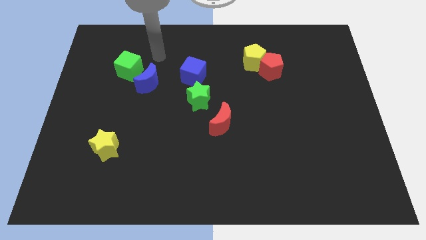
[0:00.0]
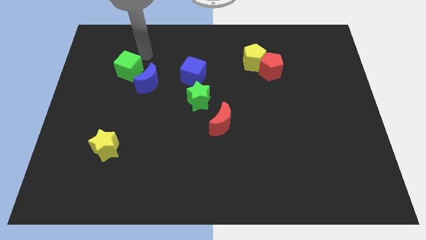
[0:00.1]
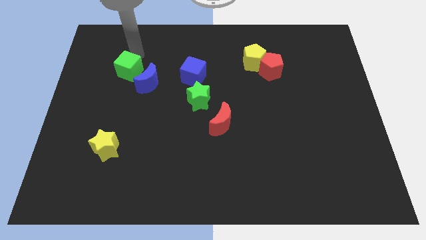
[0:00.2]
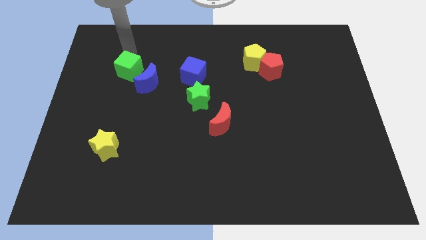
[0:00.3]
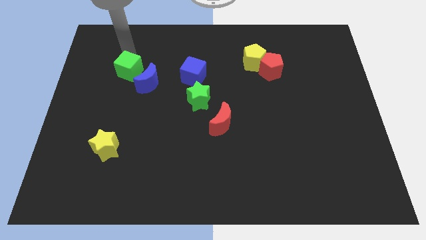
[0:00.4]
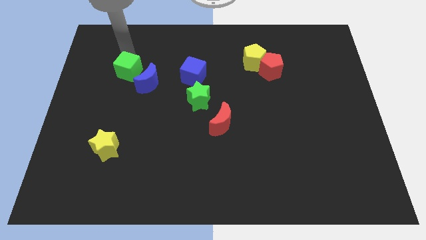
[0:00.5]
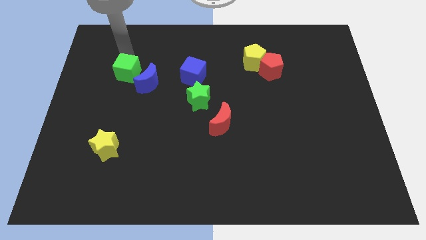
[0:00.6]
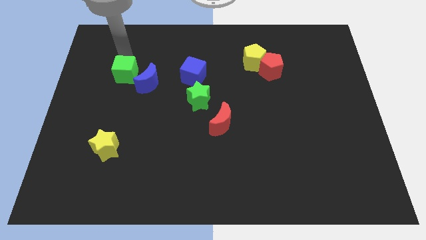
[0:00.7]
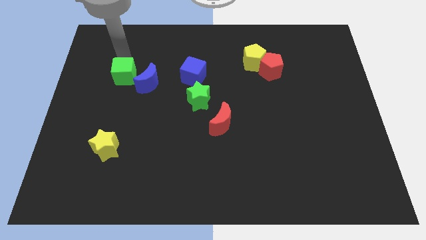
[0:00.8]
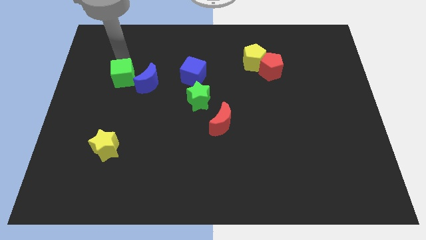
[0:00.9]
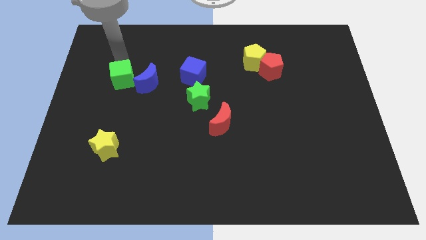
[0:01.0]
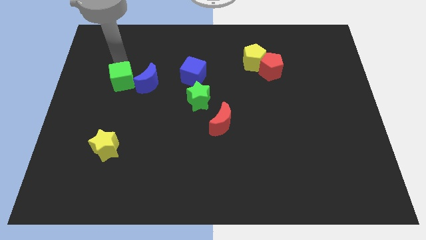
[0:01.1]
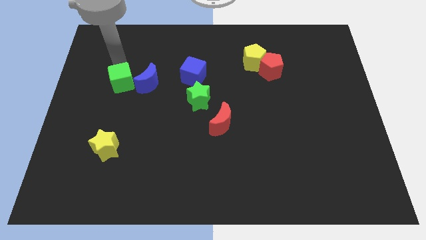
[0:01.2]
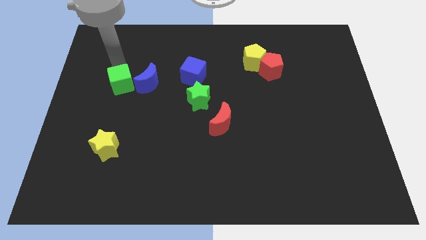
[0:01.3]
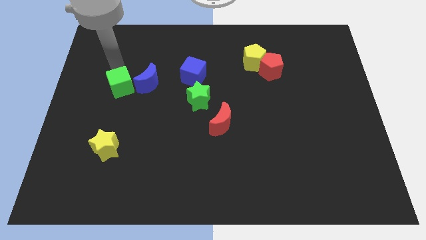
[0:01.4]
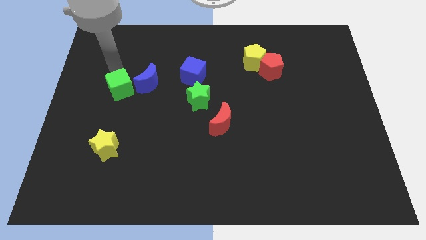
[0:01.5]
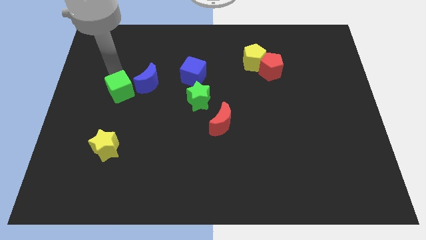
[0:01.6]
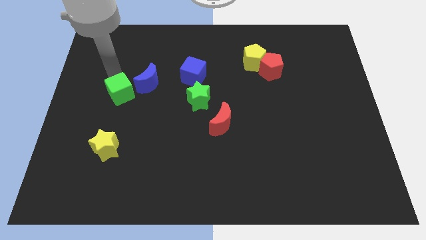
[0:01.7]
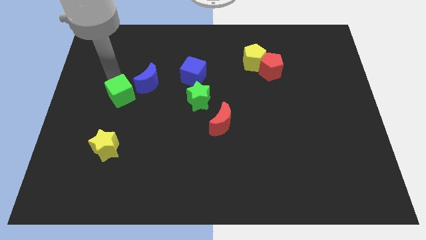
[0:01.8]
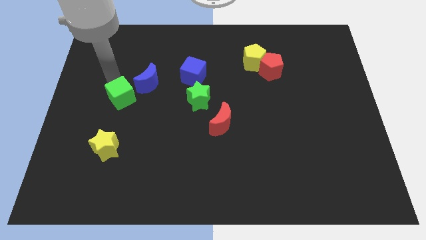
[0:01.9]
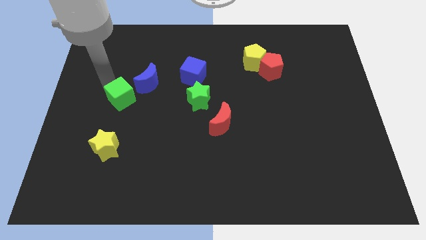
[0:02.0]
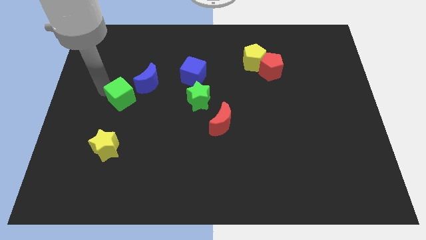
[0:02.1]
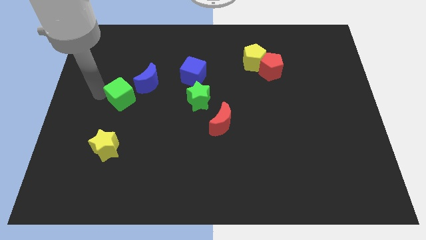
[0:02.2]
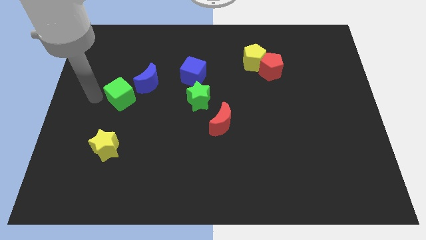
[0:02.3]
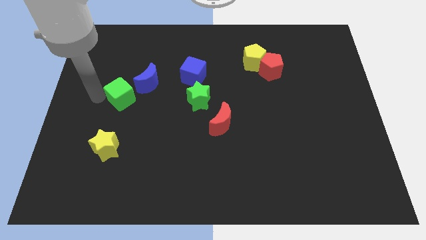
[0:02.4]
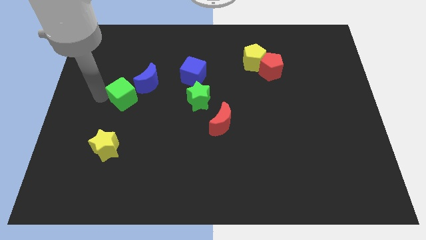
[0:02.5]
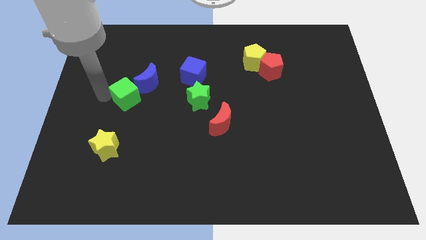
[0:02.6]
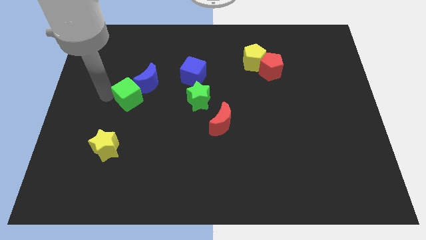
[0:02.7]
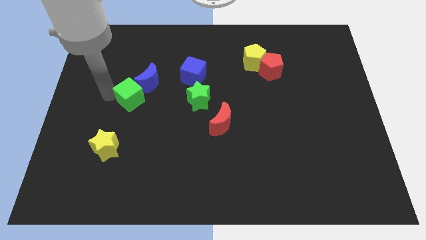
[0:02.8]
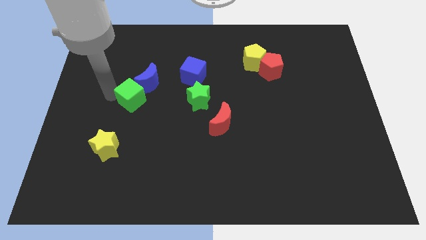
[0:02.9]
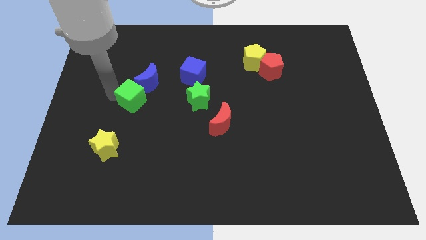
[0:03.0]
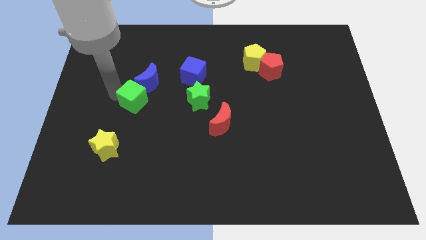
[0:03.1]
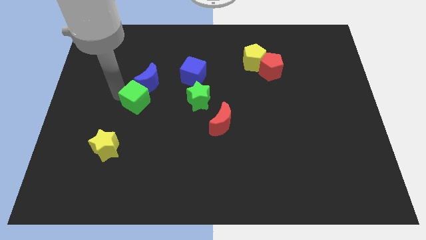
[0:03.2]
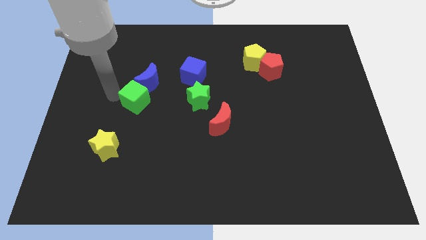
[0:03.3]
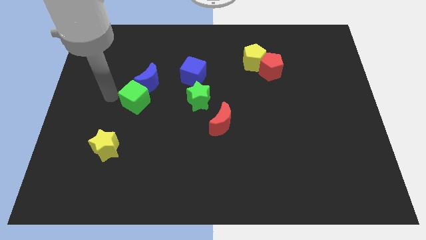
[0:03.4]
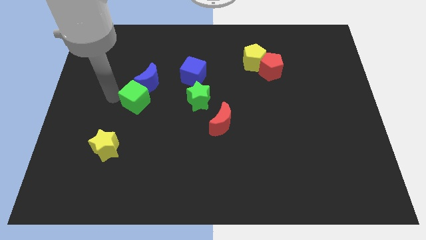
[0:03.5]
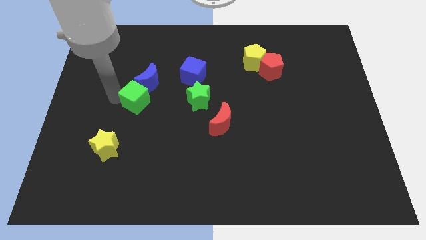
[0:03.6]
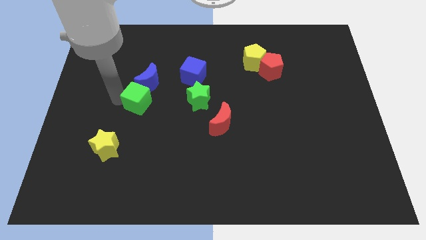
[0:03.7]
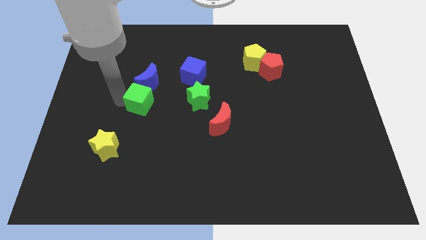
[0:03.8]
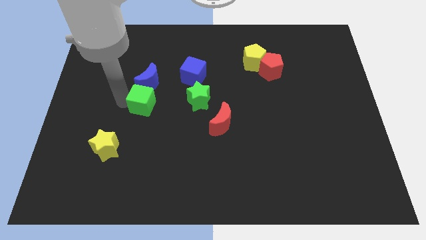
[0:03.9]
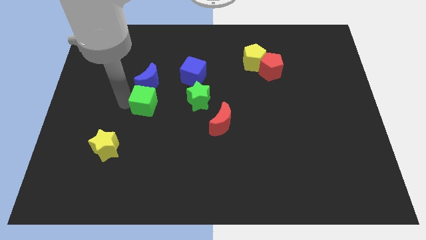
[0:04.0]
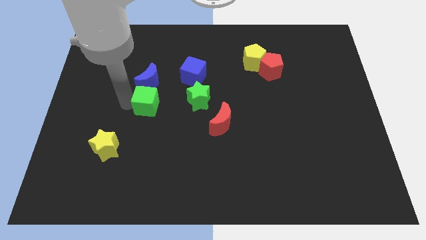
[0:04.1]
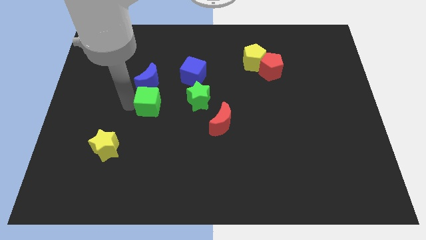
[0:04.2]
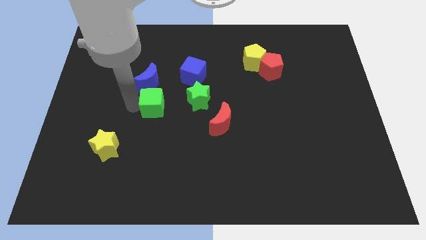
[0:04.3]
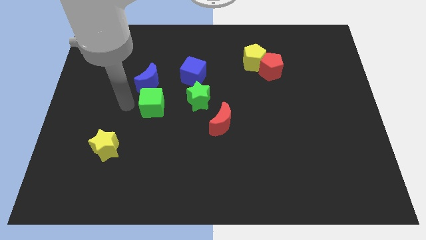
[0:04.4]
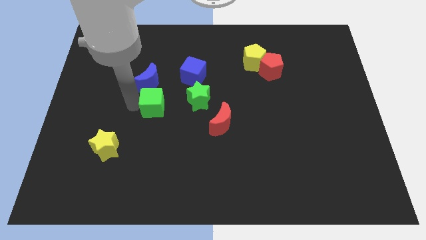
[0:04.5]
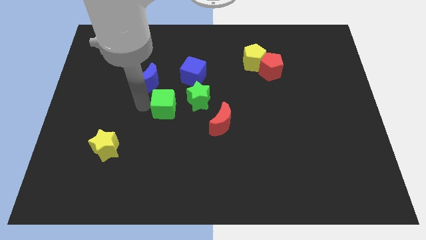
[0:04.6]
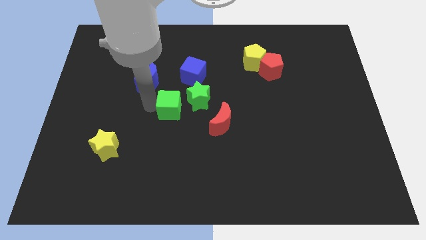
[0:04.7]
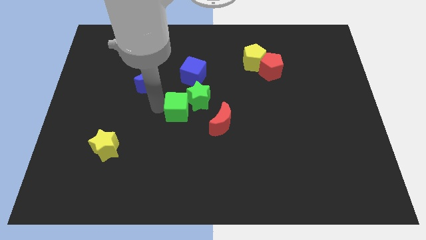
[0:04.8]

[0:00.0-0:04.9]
put the green cube below the blue cube

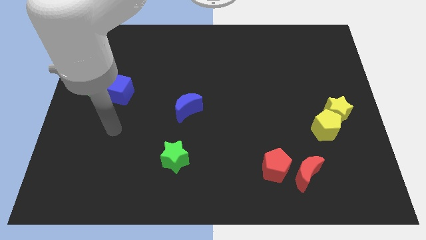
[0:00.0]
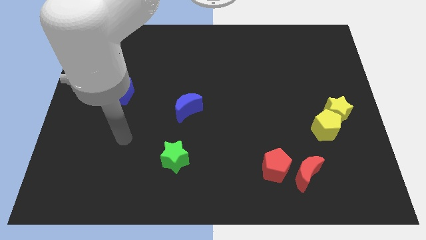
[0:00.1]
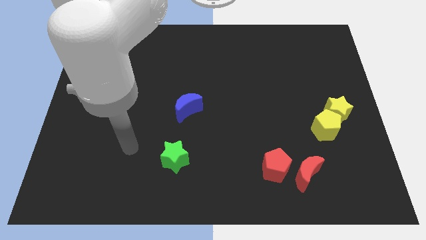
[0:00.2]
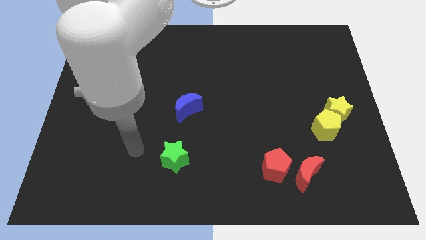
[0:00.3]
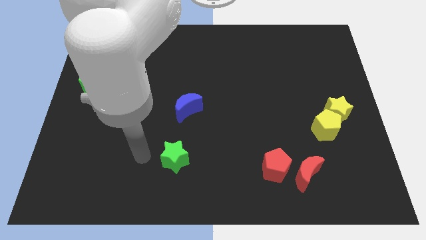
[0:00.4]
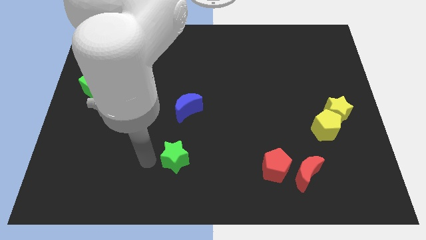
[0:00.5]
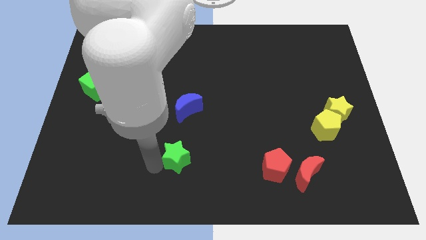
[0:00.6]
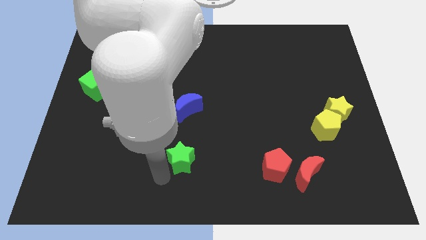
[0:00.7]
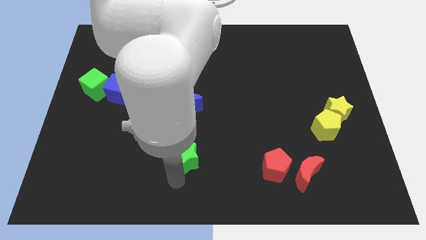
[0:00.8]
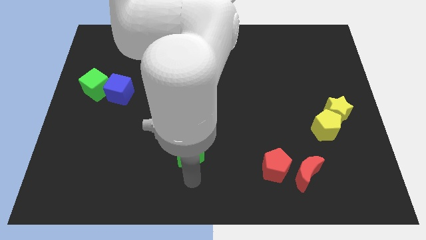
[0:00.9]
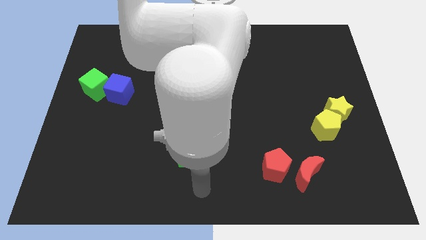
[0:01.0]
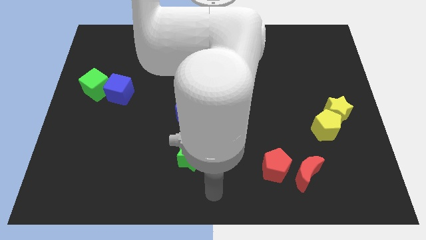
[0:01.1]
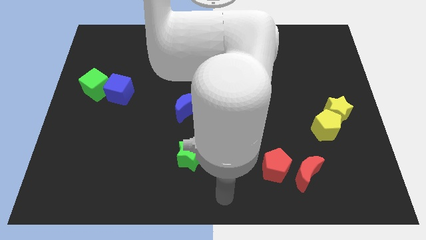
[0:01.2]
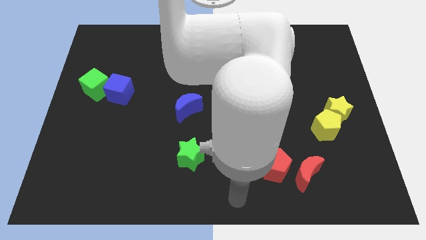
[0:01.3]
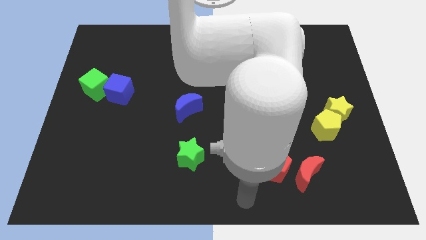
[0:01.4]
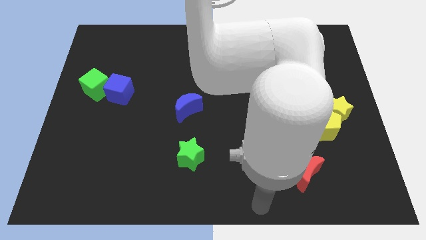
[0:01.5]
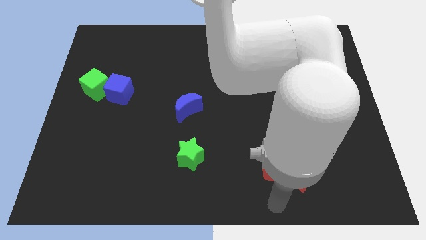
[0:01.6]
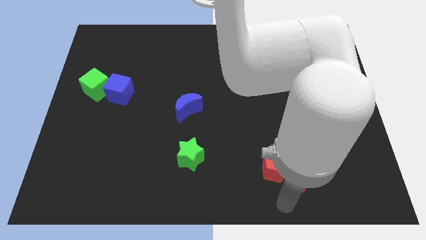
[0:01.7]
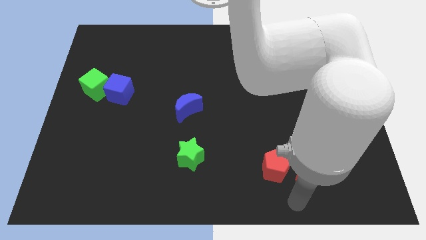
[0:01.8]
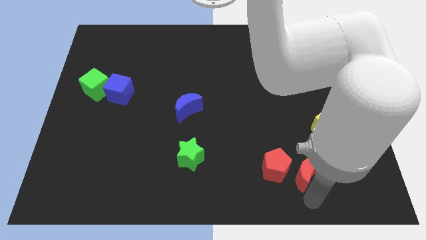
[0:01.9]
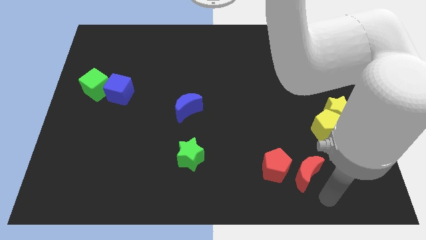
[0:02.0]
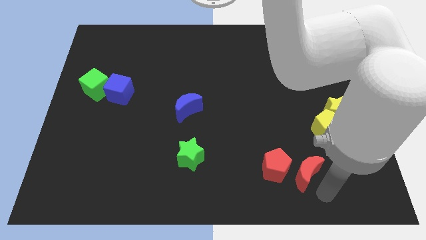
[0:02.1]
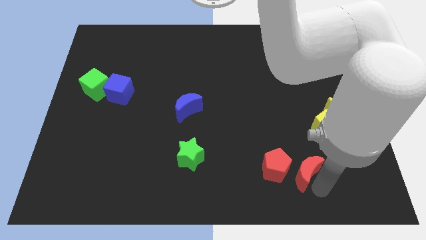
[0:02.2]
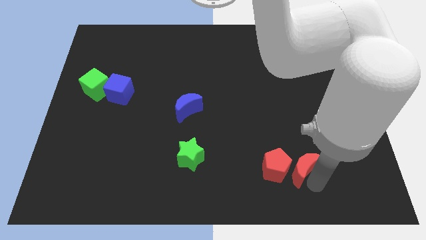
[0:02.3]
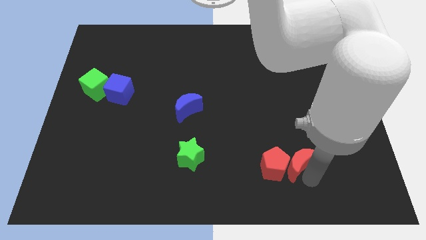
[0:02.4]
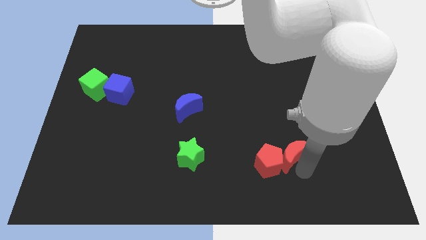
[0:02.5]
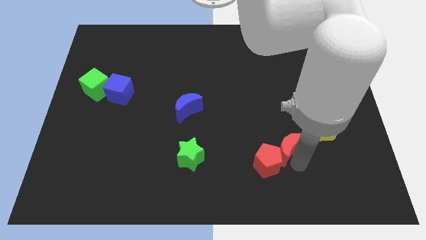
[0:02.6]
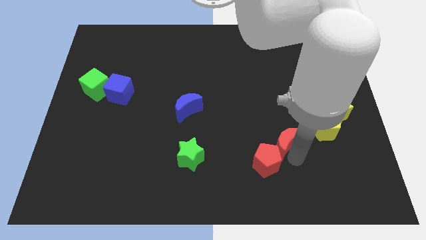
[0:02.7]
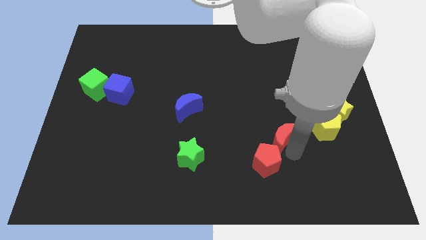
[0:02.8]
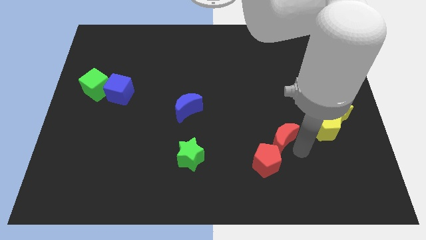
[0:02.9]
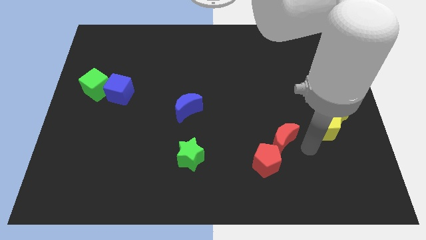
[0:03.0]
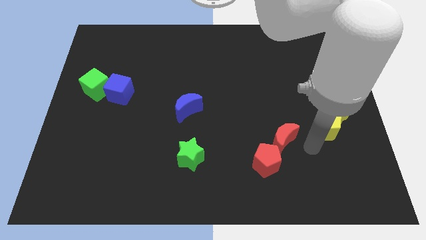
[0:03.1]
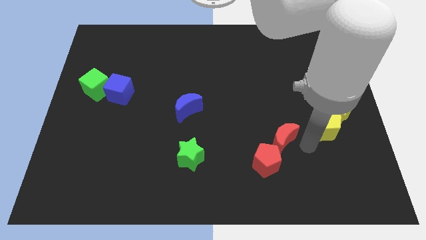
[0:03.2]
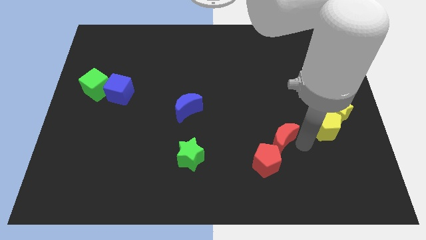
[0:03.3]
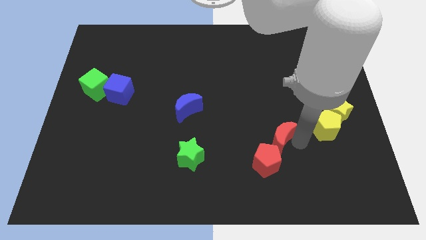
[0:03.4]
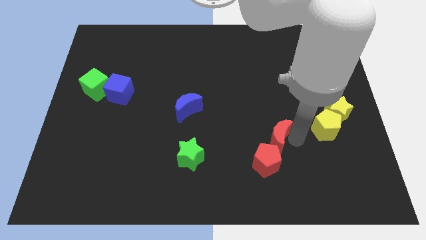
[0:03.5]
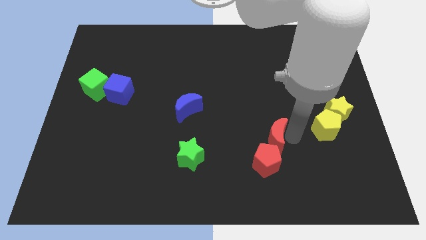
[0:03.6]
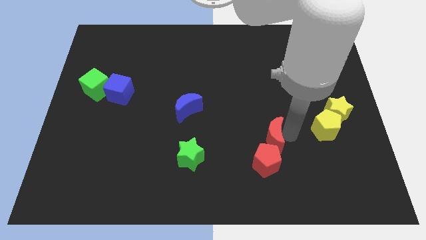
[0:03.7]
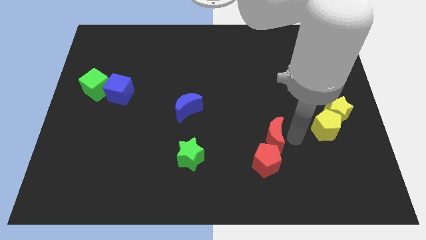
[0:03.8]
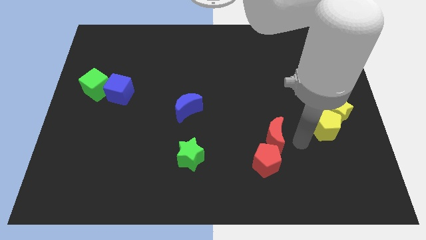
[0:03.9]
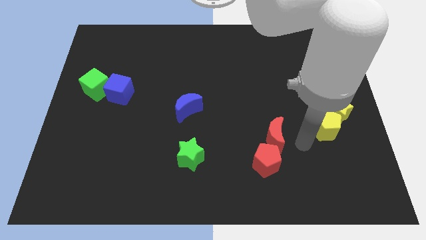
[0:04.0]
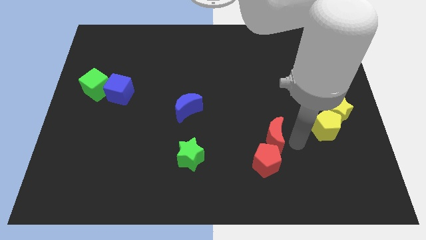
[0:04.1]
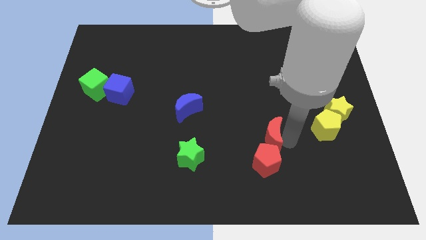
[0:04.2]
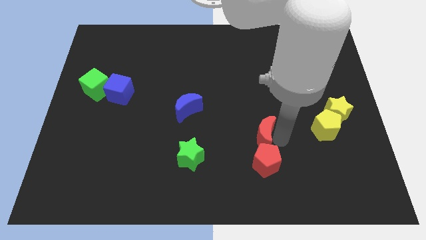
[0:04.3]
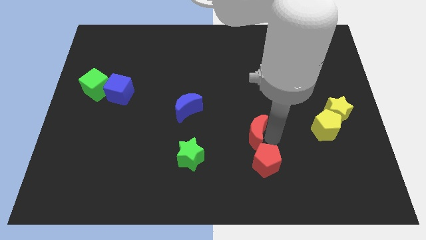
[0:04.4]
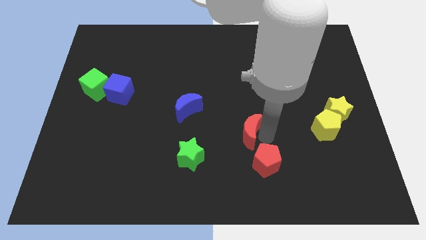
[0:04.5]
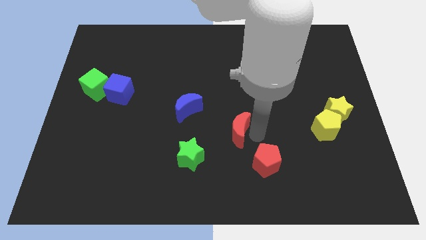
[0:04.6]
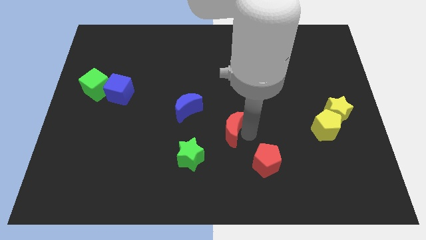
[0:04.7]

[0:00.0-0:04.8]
put the red moon to the bottom right of the blue moon
